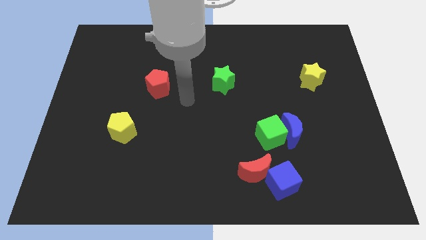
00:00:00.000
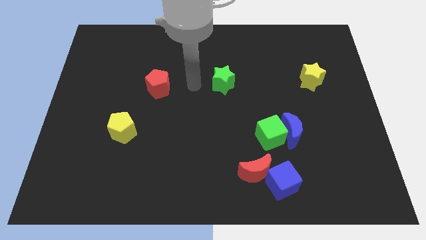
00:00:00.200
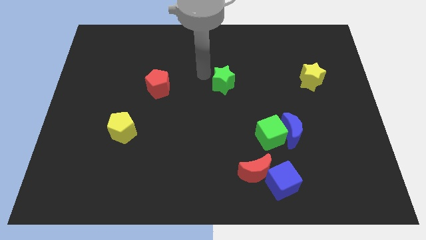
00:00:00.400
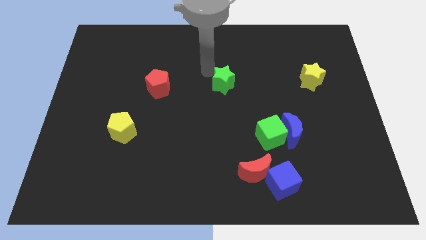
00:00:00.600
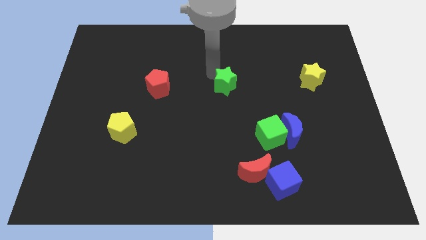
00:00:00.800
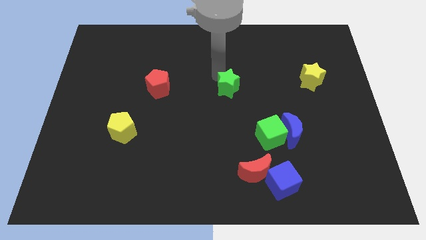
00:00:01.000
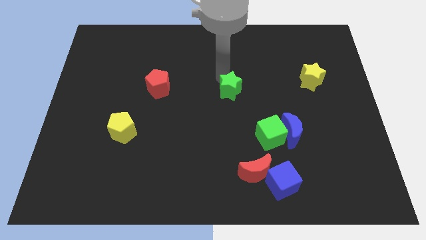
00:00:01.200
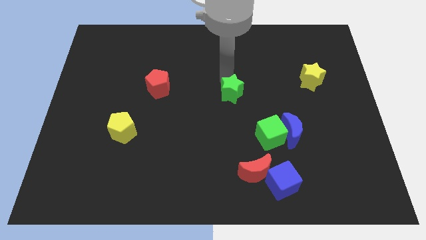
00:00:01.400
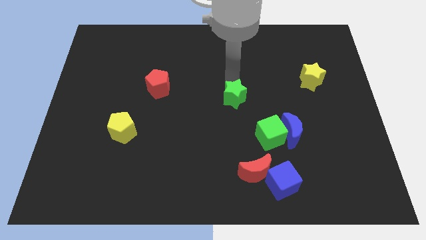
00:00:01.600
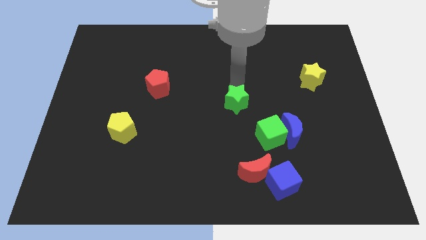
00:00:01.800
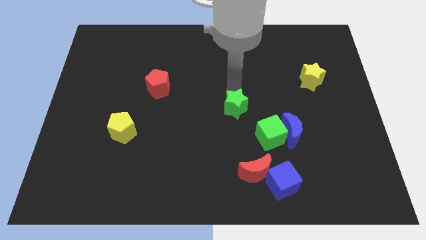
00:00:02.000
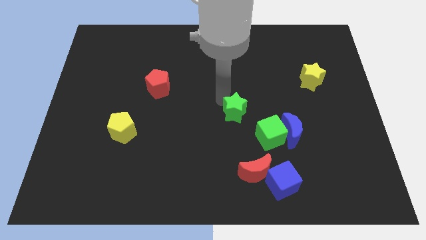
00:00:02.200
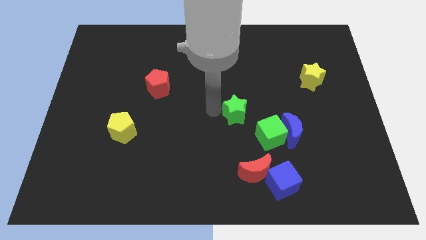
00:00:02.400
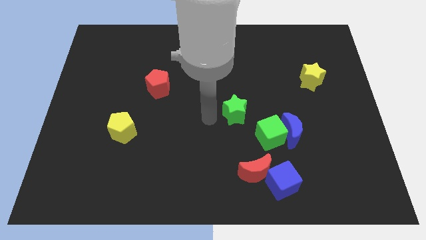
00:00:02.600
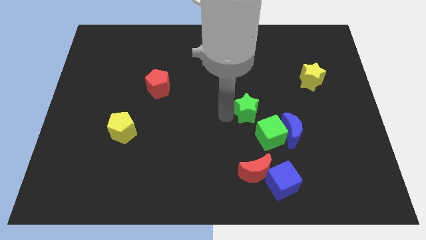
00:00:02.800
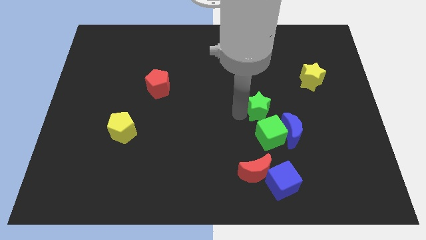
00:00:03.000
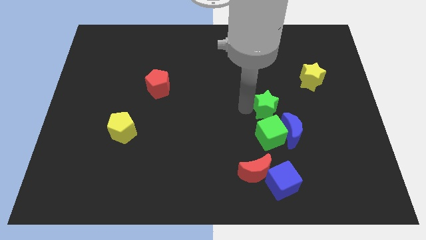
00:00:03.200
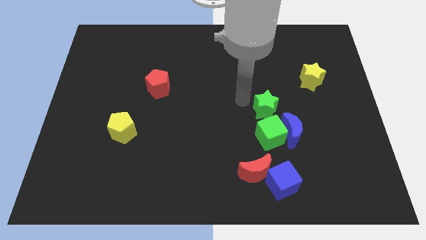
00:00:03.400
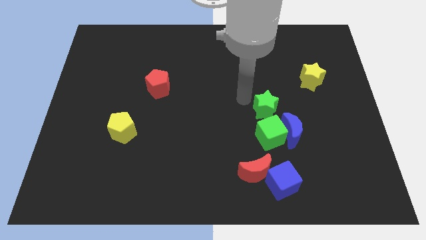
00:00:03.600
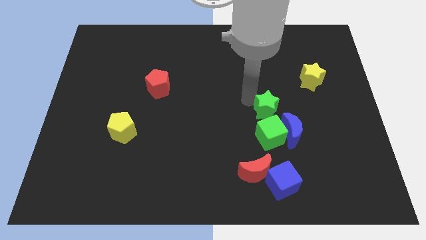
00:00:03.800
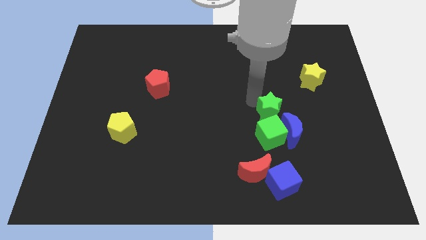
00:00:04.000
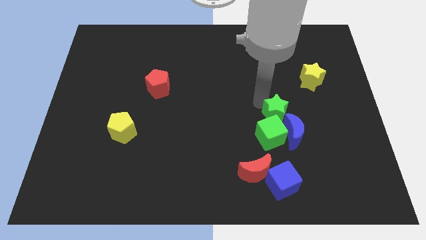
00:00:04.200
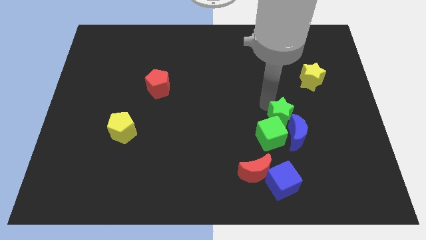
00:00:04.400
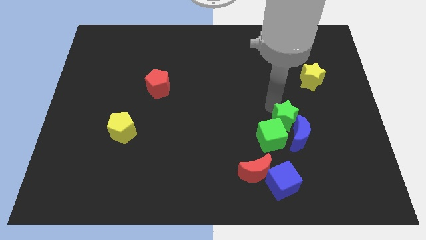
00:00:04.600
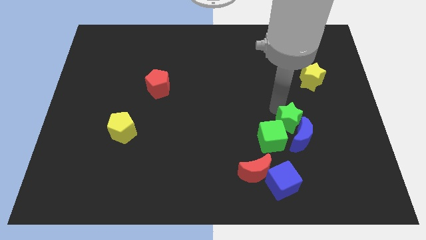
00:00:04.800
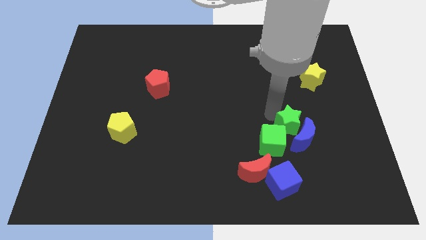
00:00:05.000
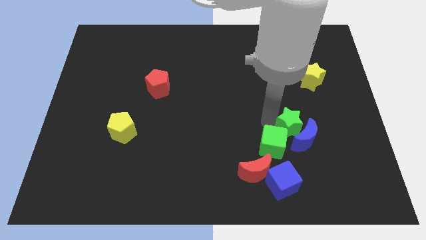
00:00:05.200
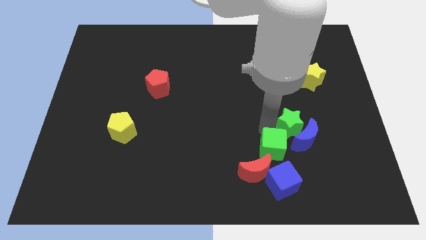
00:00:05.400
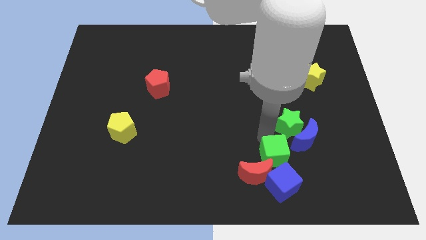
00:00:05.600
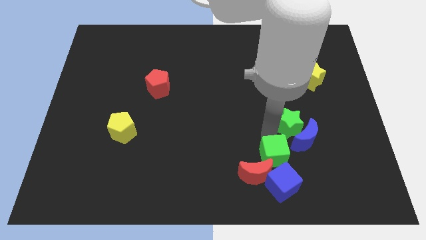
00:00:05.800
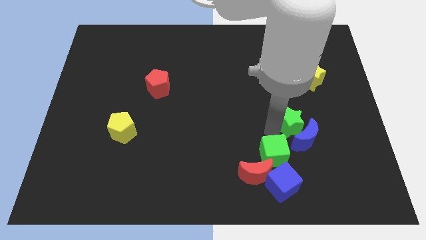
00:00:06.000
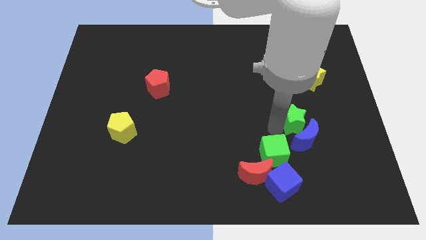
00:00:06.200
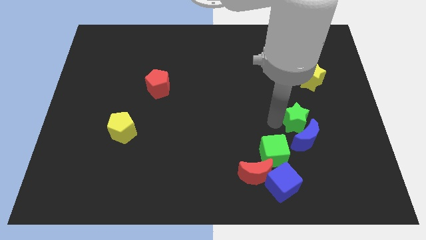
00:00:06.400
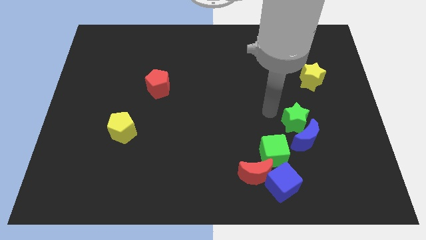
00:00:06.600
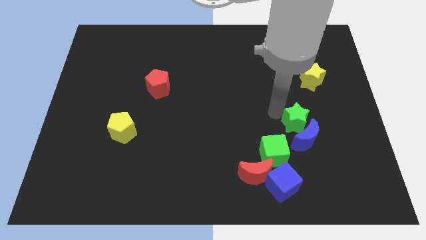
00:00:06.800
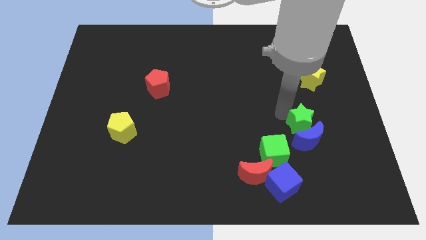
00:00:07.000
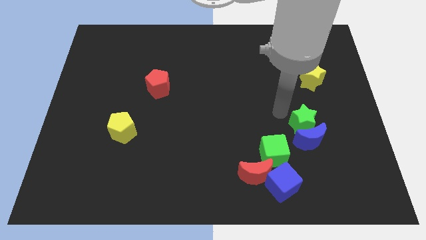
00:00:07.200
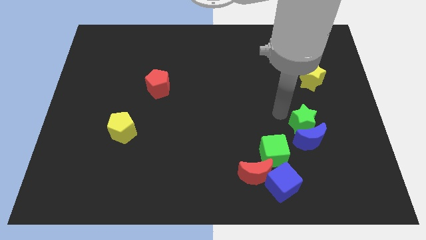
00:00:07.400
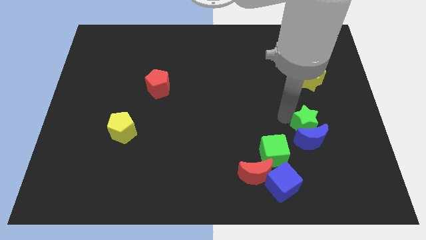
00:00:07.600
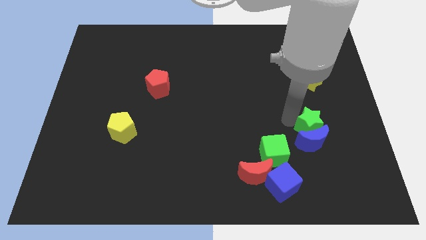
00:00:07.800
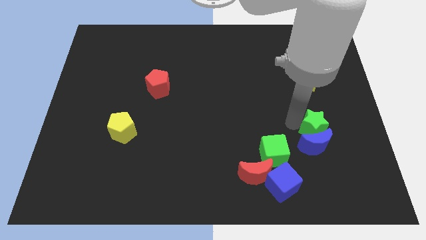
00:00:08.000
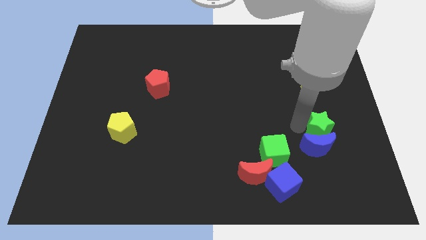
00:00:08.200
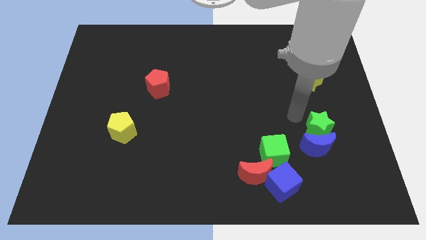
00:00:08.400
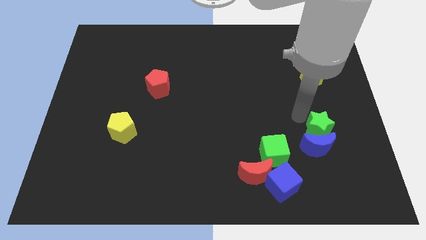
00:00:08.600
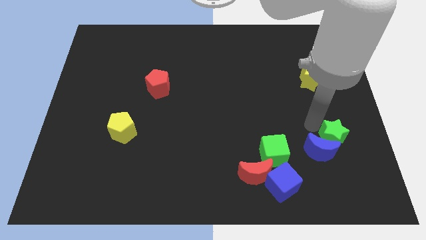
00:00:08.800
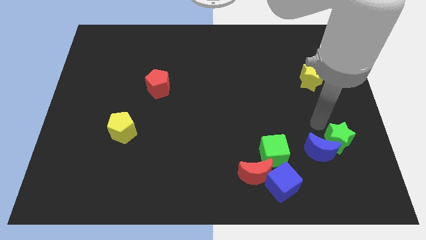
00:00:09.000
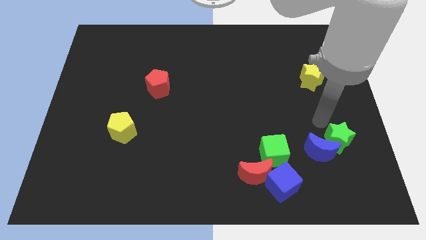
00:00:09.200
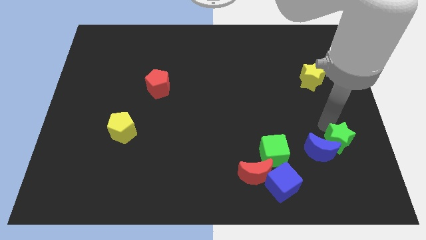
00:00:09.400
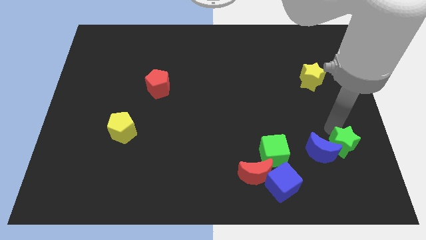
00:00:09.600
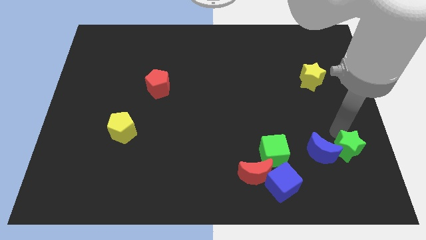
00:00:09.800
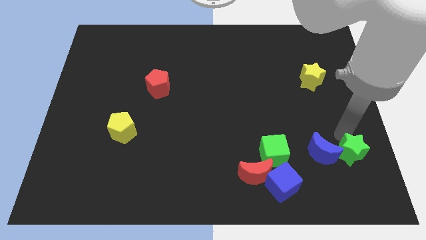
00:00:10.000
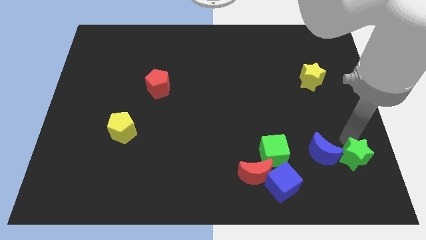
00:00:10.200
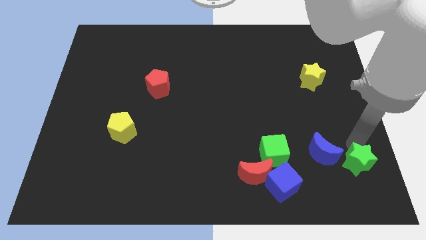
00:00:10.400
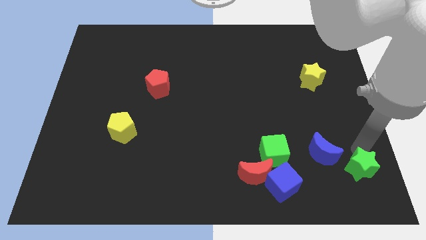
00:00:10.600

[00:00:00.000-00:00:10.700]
move the green star to the bottom right

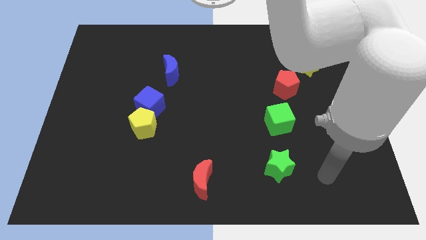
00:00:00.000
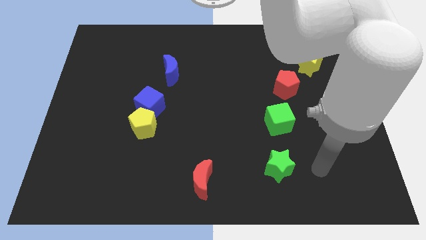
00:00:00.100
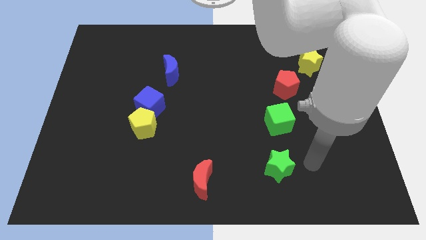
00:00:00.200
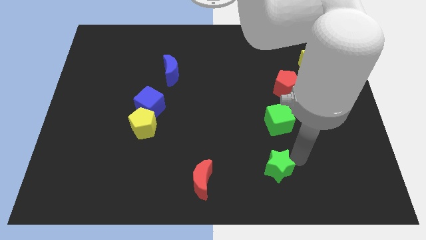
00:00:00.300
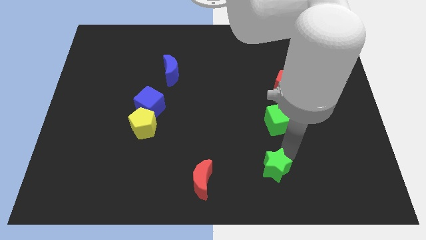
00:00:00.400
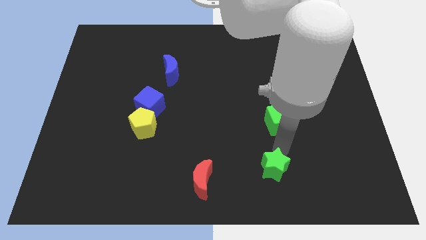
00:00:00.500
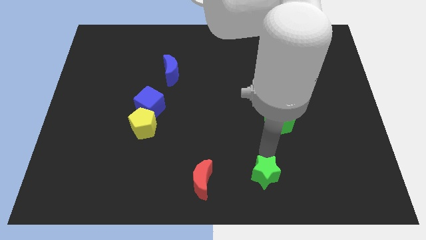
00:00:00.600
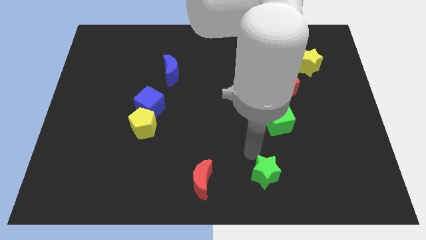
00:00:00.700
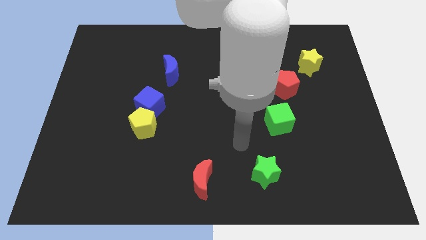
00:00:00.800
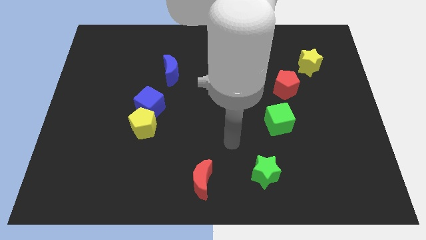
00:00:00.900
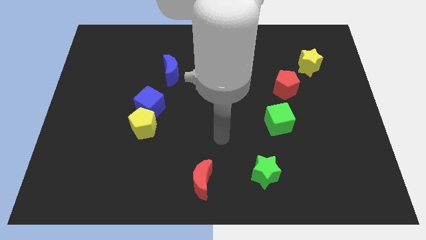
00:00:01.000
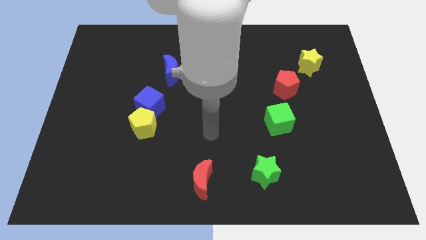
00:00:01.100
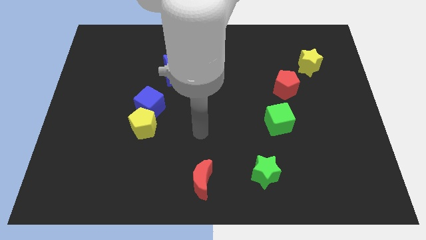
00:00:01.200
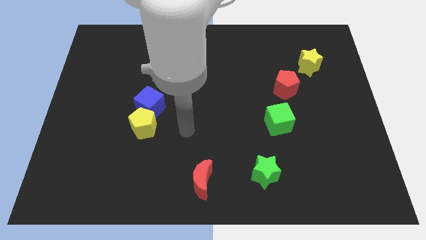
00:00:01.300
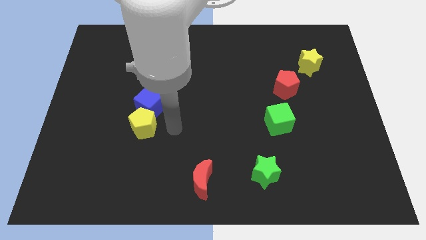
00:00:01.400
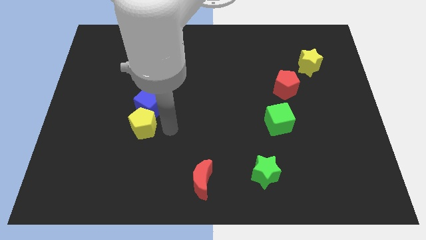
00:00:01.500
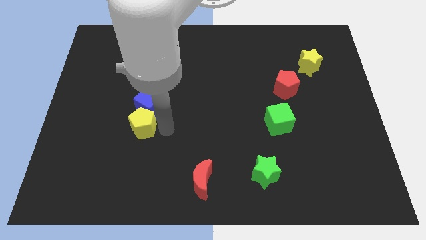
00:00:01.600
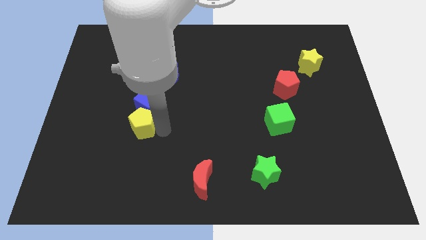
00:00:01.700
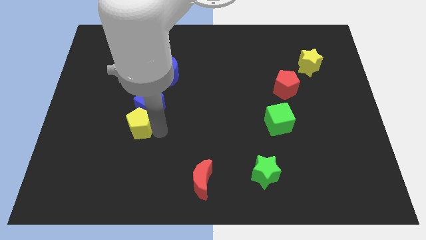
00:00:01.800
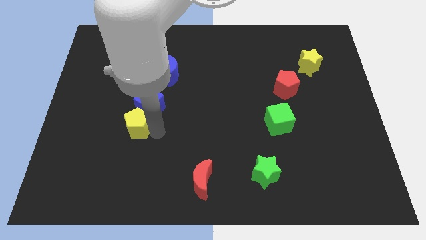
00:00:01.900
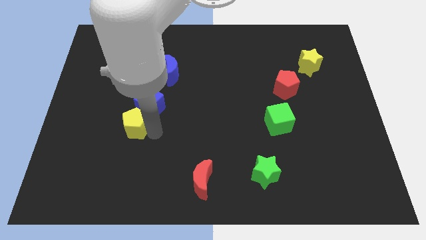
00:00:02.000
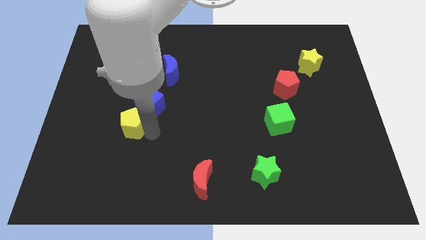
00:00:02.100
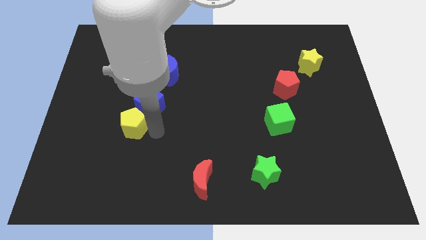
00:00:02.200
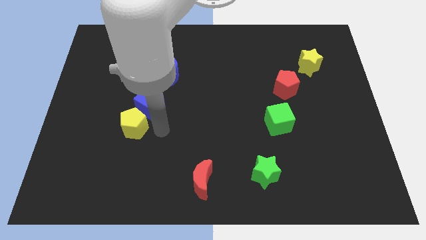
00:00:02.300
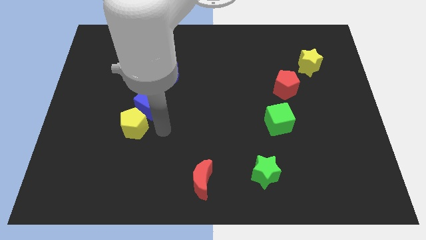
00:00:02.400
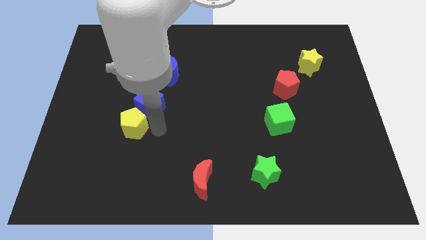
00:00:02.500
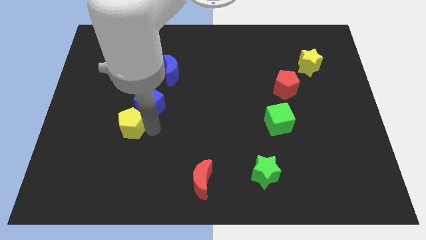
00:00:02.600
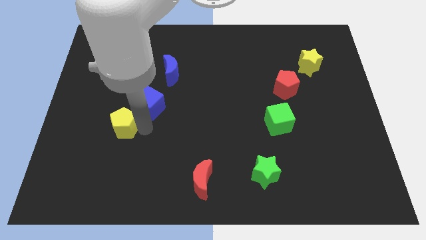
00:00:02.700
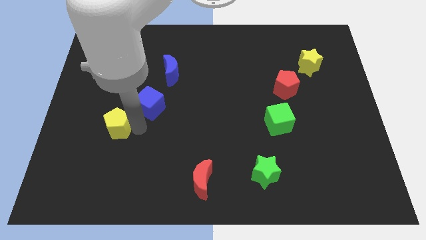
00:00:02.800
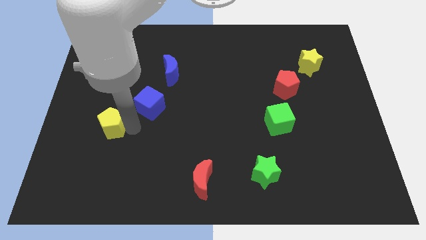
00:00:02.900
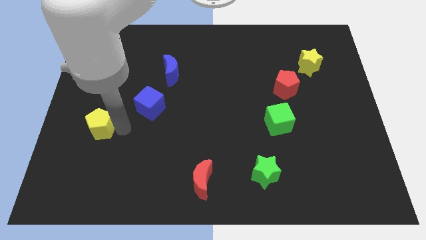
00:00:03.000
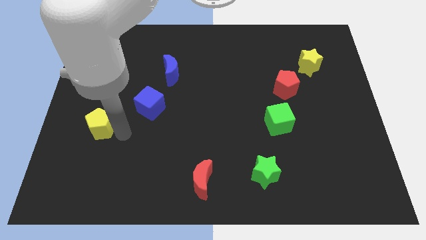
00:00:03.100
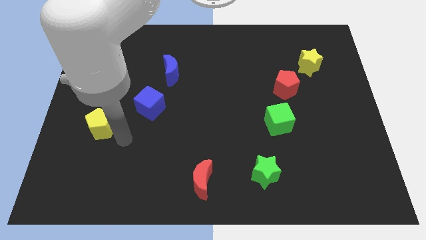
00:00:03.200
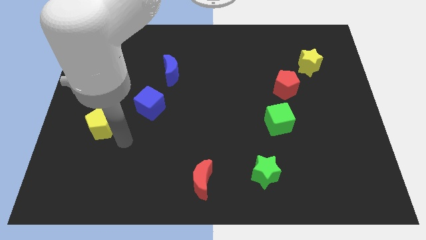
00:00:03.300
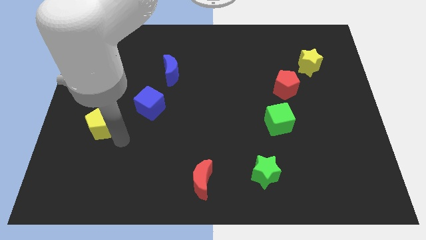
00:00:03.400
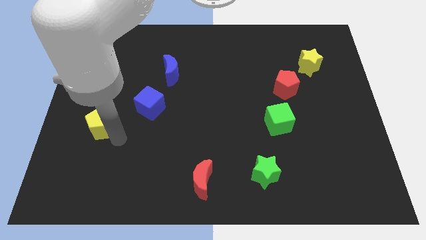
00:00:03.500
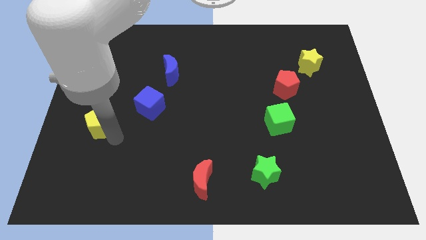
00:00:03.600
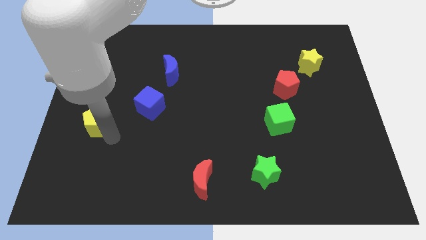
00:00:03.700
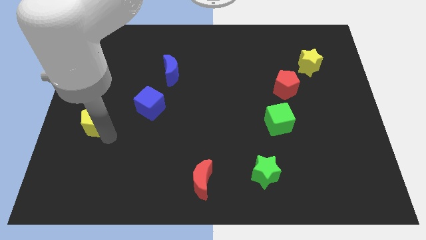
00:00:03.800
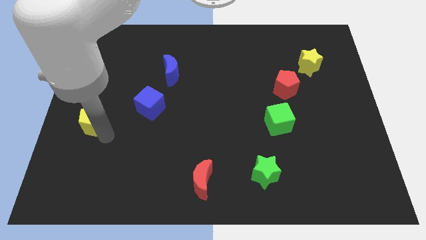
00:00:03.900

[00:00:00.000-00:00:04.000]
put the yellow pentagon to the left side of the board
